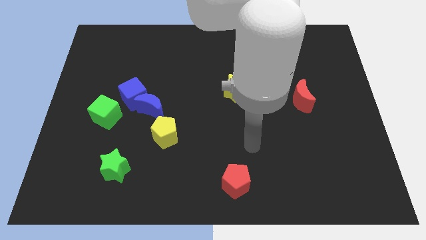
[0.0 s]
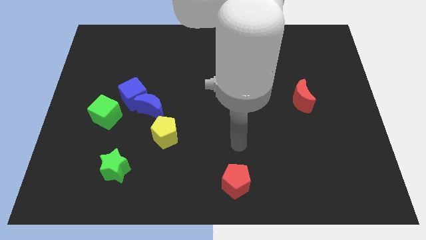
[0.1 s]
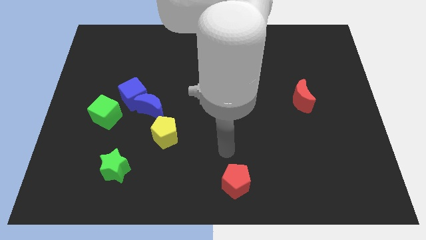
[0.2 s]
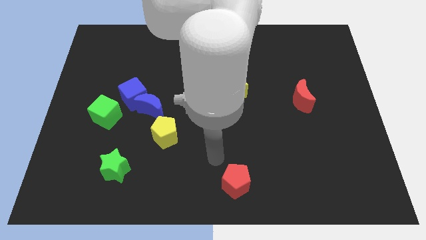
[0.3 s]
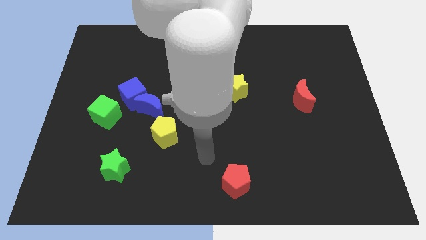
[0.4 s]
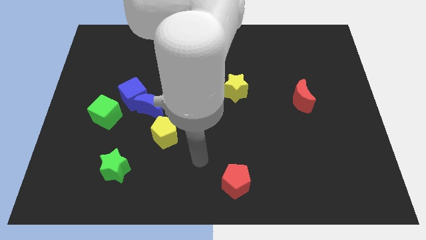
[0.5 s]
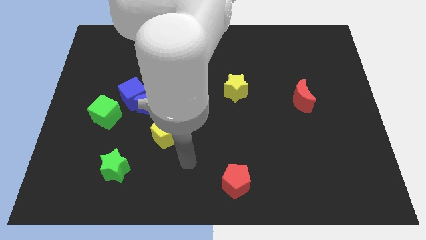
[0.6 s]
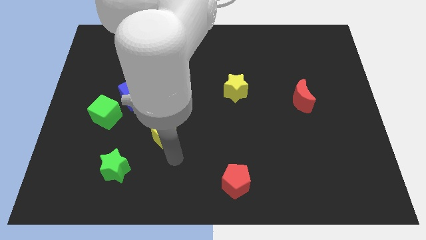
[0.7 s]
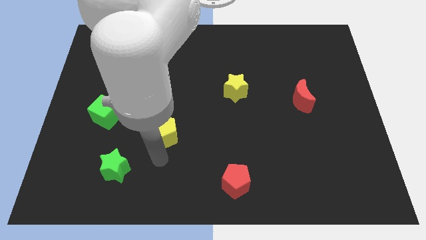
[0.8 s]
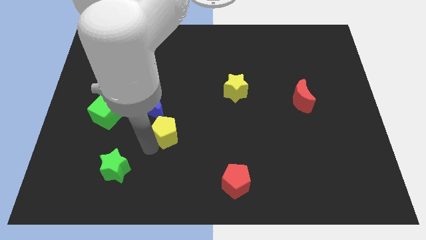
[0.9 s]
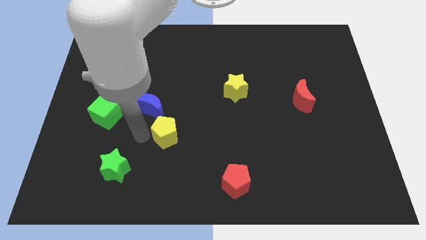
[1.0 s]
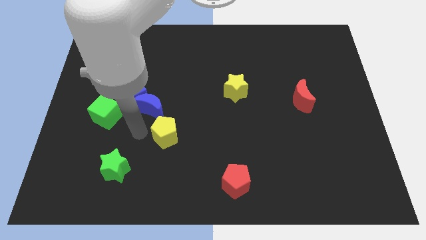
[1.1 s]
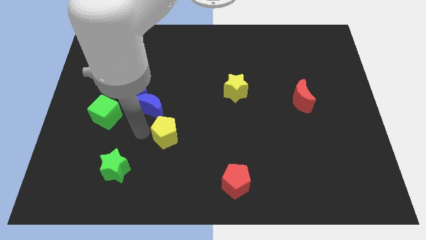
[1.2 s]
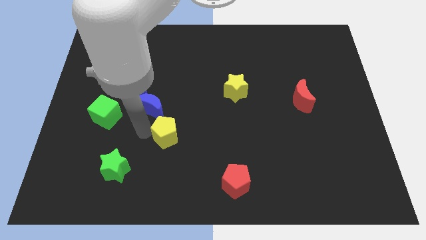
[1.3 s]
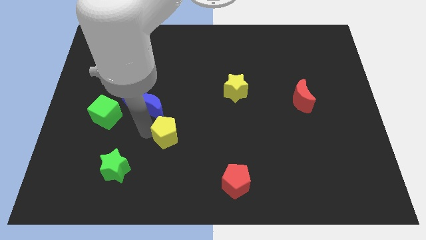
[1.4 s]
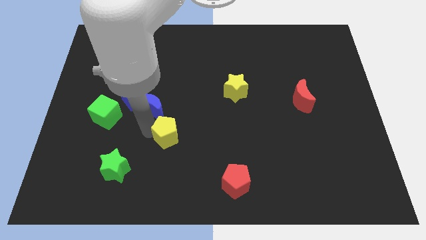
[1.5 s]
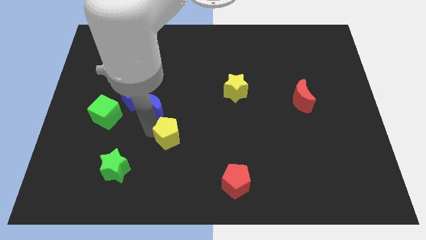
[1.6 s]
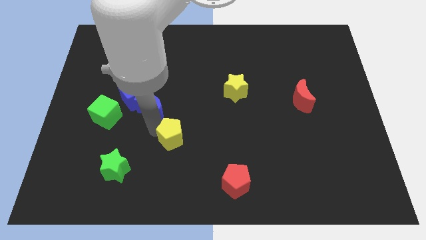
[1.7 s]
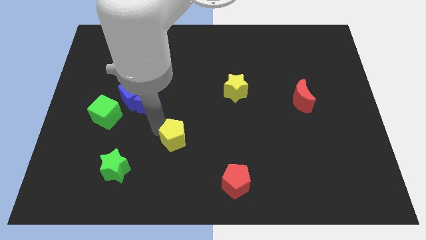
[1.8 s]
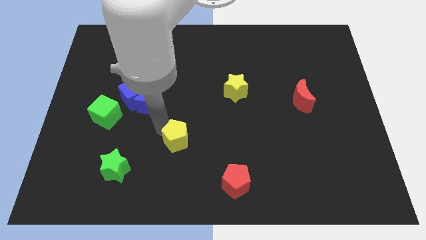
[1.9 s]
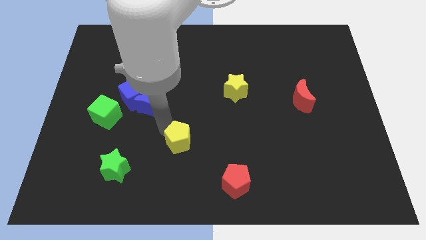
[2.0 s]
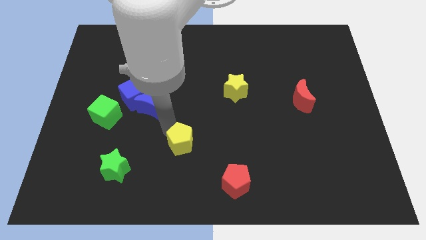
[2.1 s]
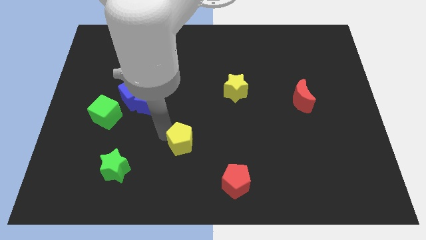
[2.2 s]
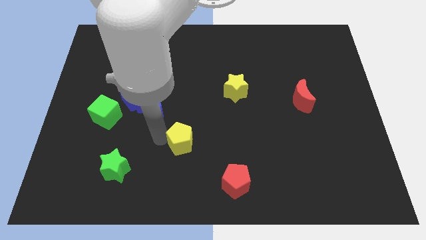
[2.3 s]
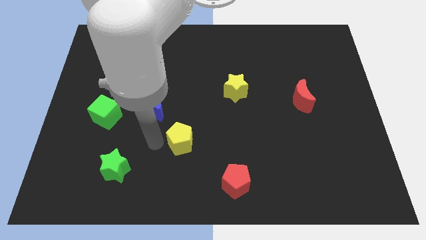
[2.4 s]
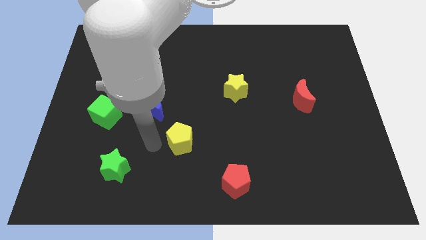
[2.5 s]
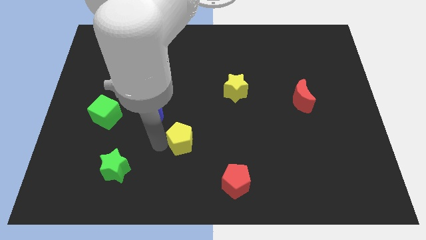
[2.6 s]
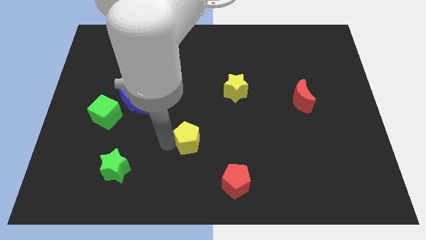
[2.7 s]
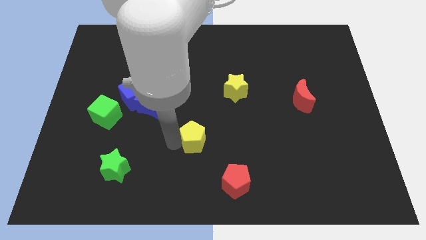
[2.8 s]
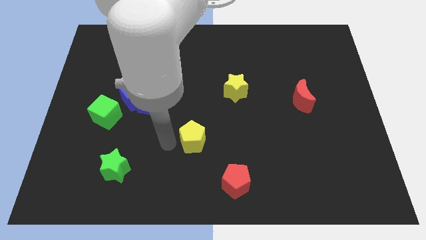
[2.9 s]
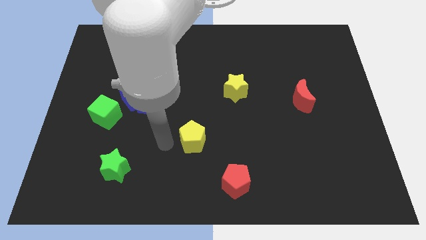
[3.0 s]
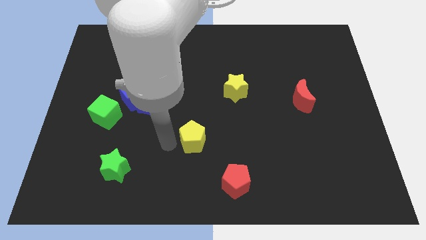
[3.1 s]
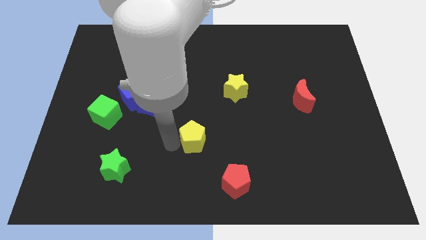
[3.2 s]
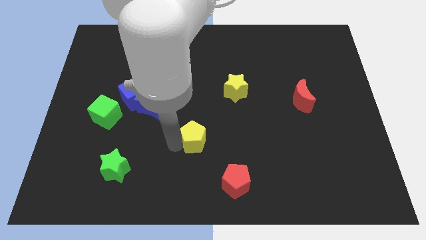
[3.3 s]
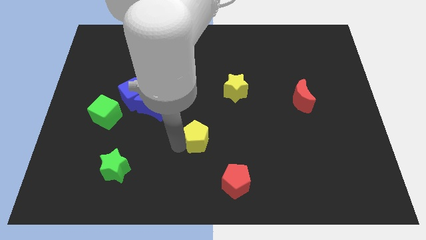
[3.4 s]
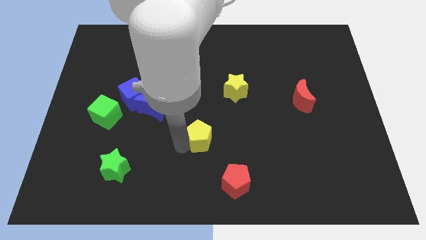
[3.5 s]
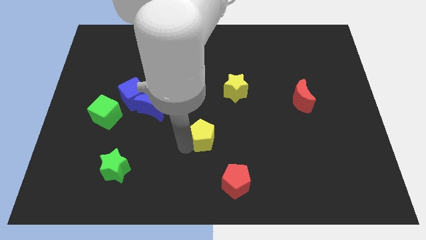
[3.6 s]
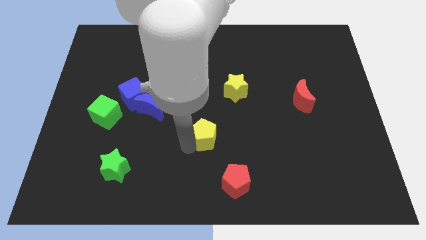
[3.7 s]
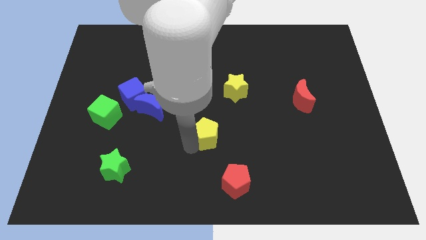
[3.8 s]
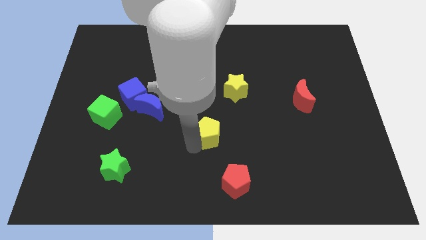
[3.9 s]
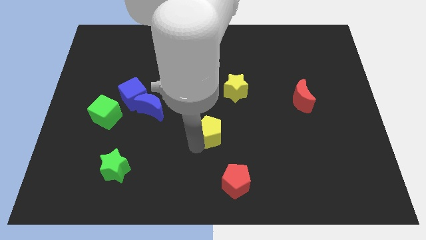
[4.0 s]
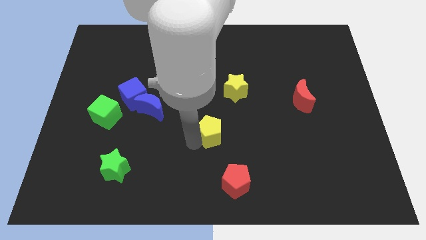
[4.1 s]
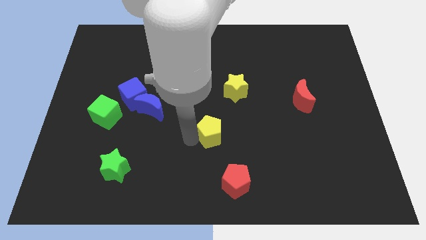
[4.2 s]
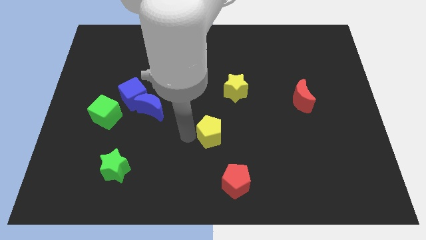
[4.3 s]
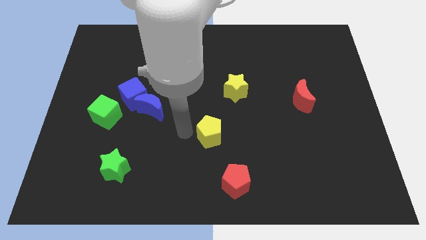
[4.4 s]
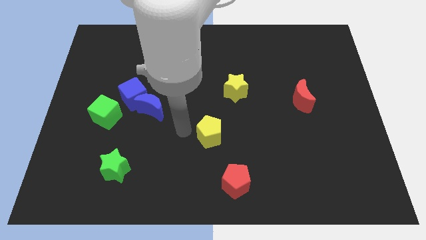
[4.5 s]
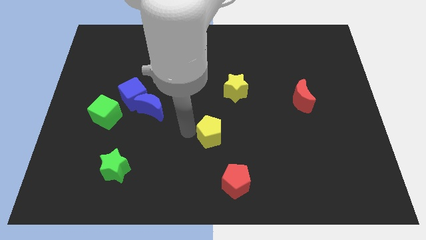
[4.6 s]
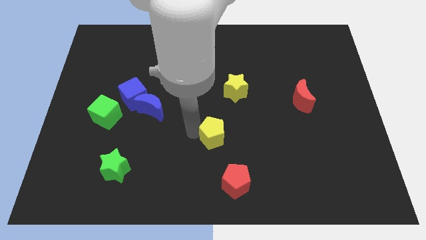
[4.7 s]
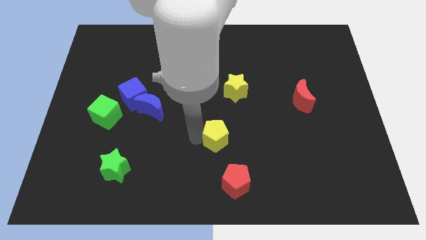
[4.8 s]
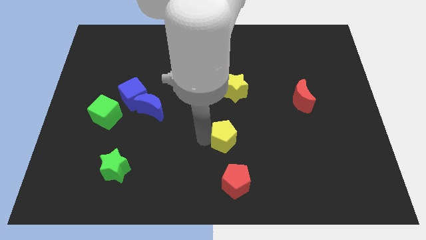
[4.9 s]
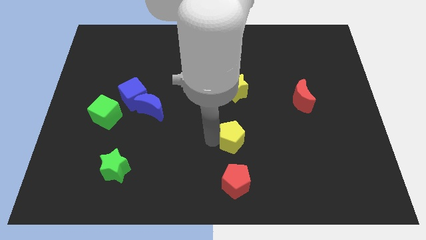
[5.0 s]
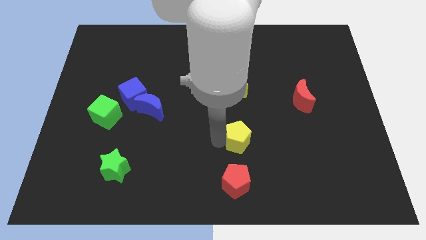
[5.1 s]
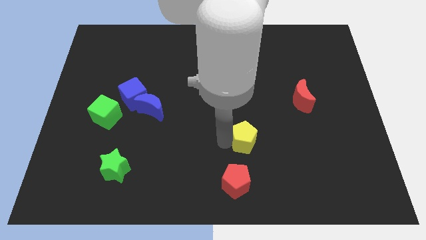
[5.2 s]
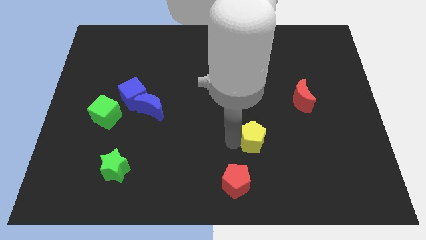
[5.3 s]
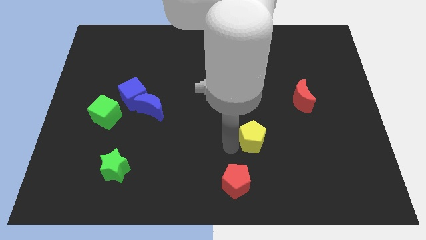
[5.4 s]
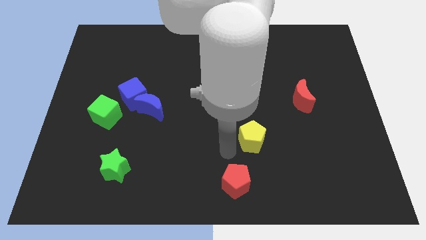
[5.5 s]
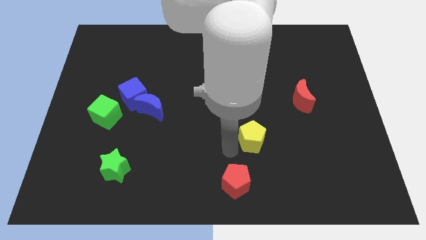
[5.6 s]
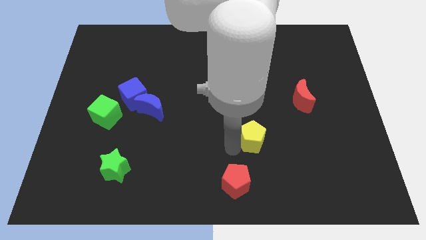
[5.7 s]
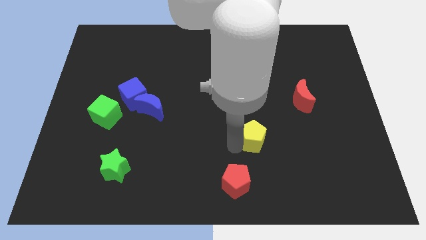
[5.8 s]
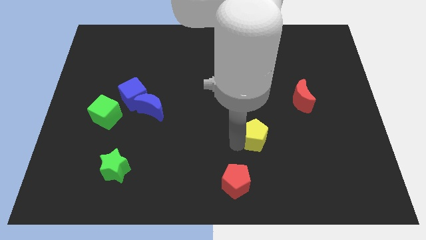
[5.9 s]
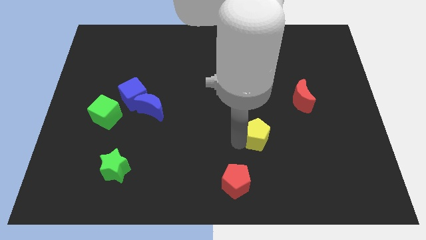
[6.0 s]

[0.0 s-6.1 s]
move the yellow pentagon right

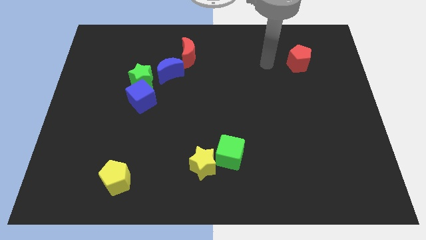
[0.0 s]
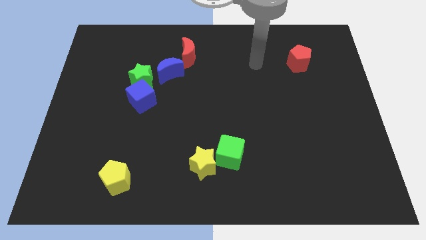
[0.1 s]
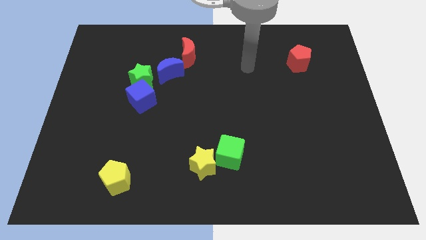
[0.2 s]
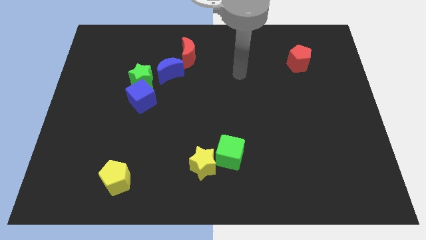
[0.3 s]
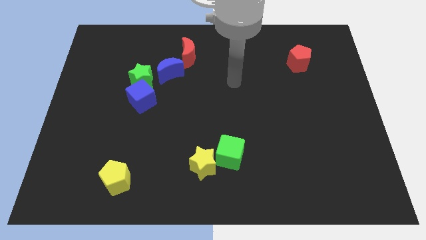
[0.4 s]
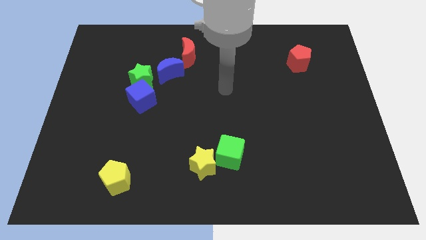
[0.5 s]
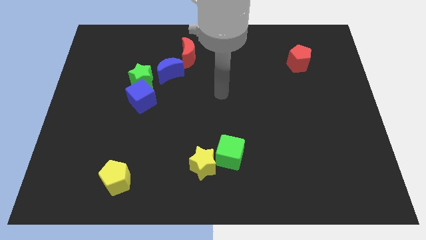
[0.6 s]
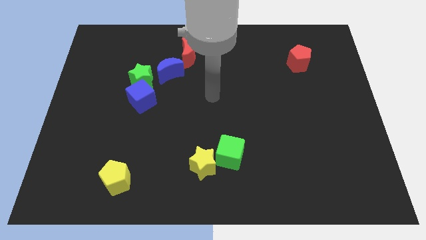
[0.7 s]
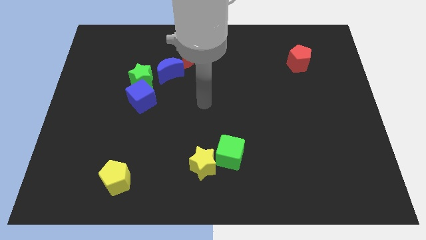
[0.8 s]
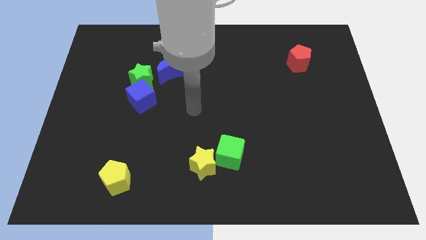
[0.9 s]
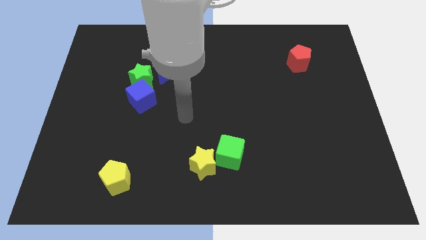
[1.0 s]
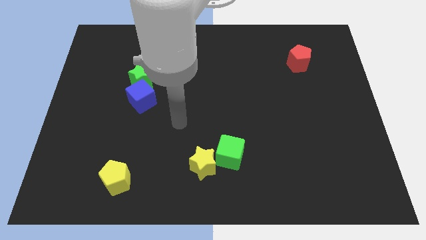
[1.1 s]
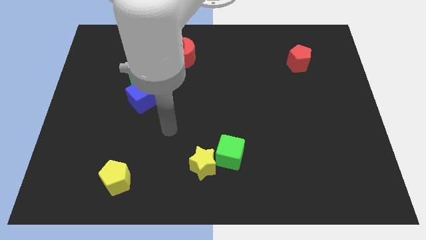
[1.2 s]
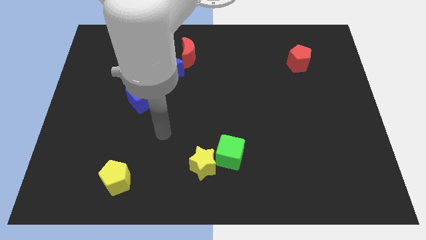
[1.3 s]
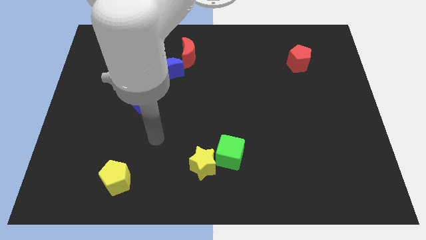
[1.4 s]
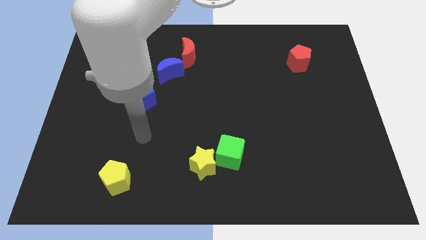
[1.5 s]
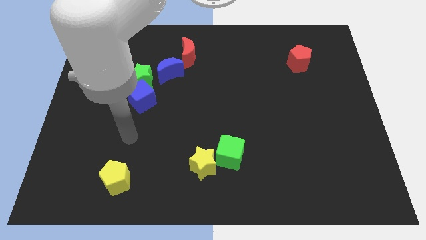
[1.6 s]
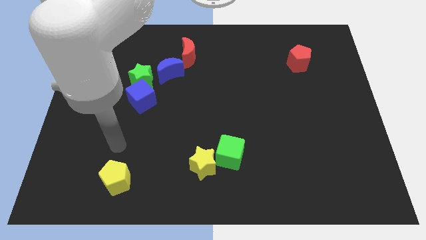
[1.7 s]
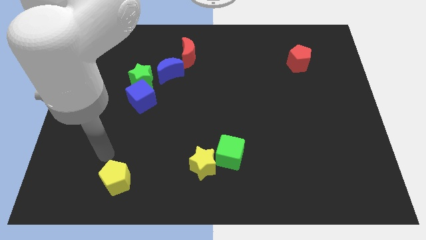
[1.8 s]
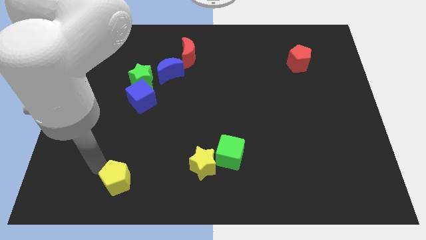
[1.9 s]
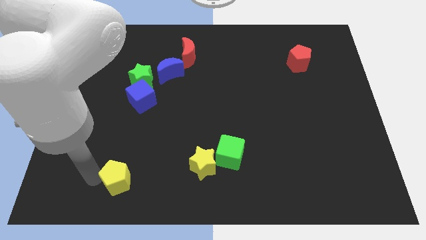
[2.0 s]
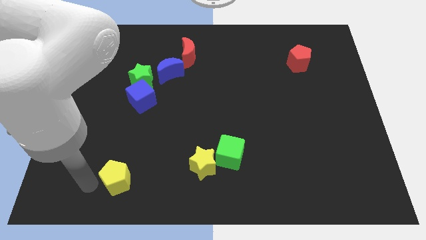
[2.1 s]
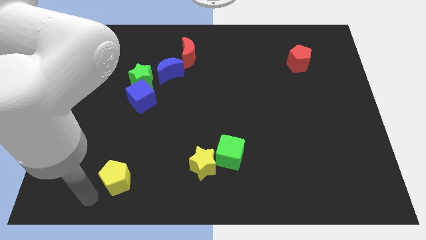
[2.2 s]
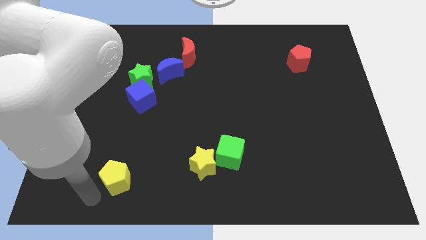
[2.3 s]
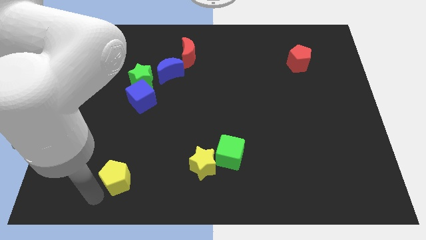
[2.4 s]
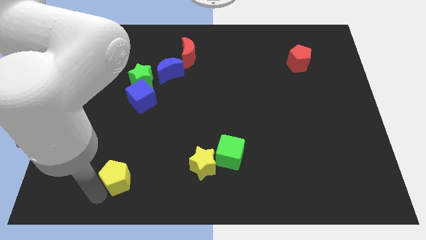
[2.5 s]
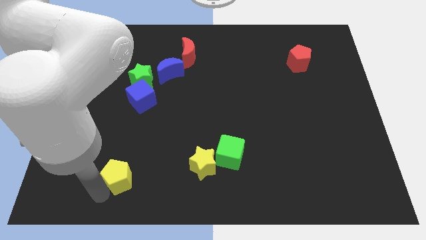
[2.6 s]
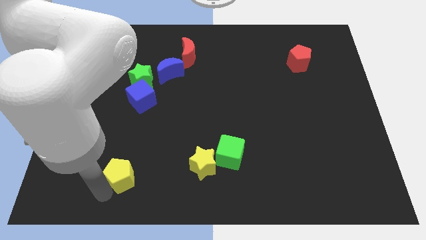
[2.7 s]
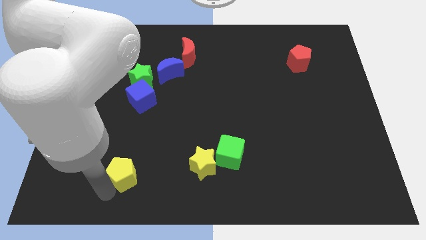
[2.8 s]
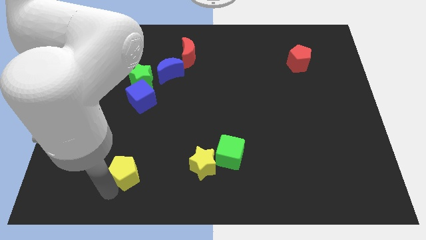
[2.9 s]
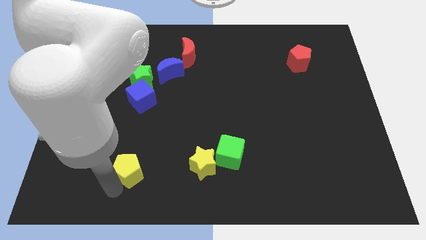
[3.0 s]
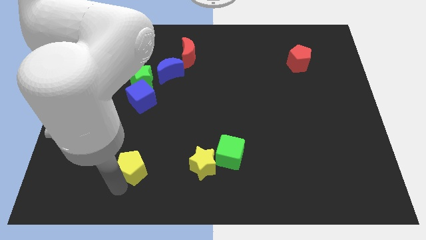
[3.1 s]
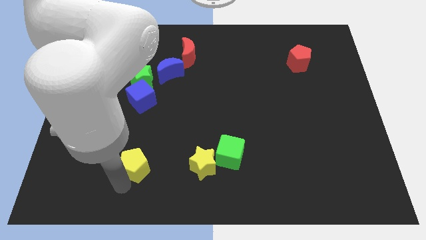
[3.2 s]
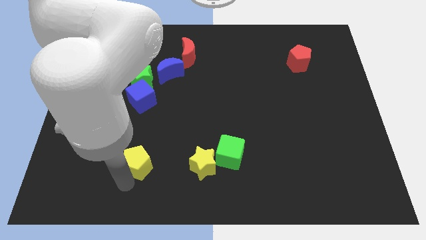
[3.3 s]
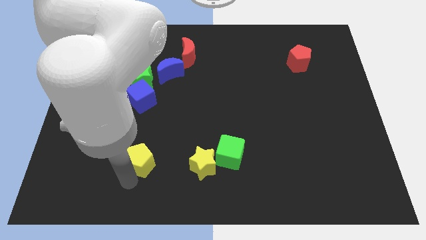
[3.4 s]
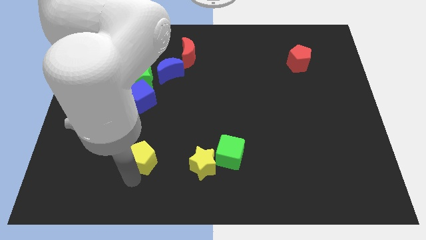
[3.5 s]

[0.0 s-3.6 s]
slide the yellow pentagon somewhat upwards and right diagonally
